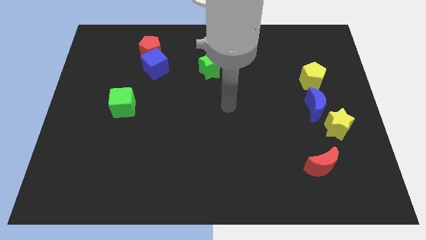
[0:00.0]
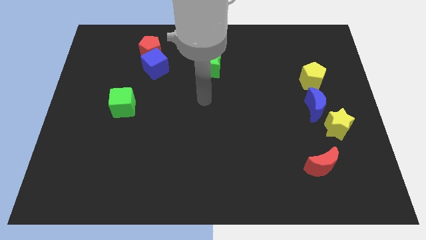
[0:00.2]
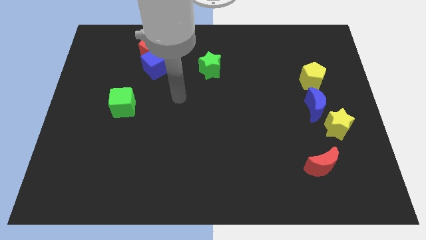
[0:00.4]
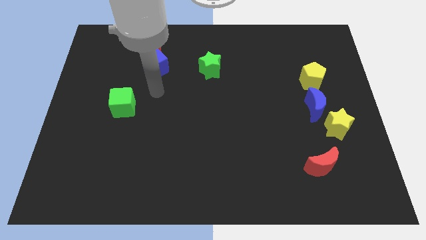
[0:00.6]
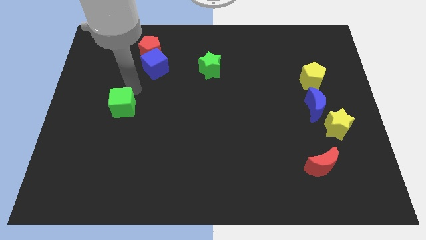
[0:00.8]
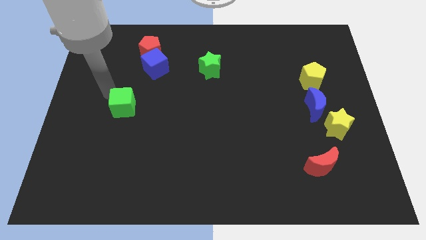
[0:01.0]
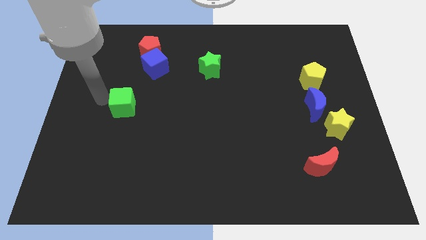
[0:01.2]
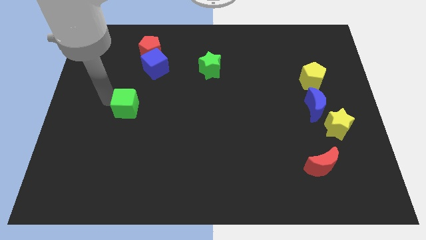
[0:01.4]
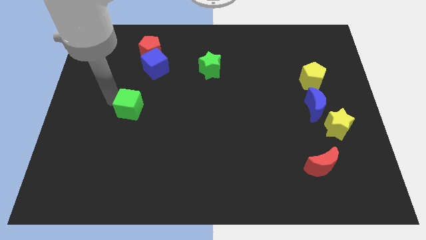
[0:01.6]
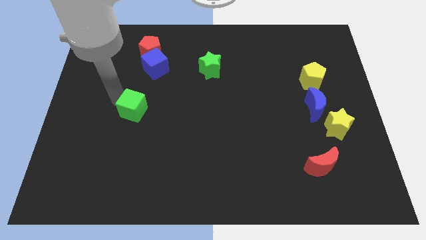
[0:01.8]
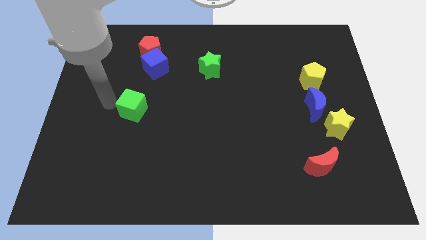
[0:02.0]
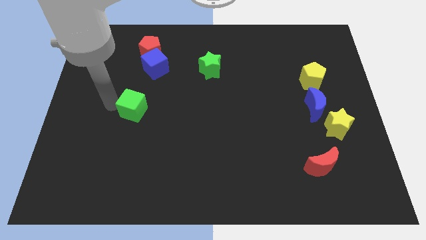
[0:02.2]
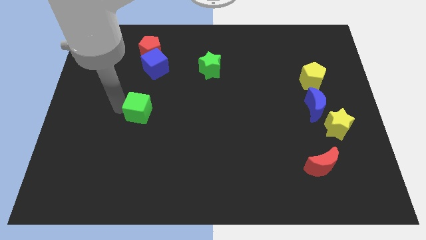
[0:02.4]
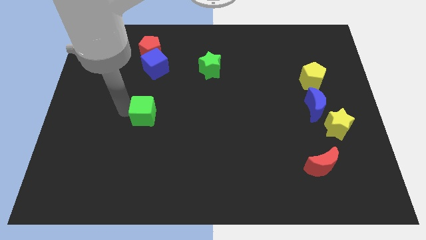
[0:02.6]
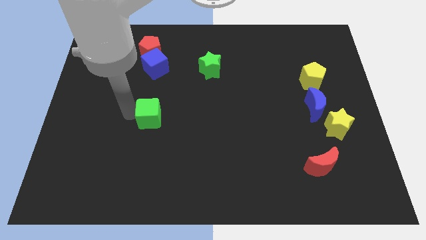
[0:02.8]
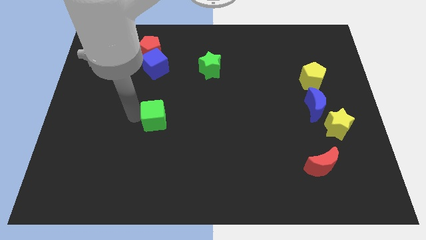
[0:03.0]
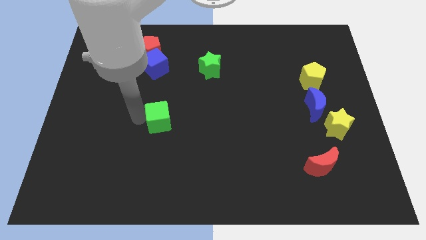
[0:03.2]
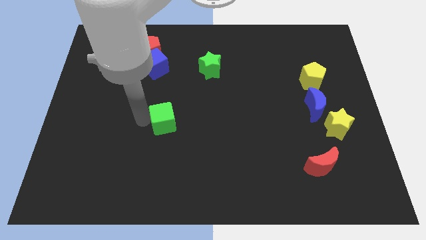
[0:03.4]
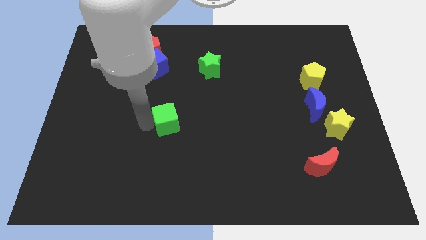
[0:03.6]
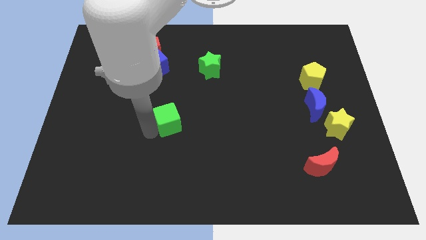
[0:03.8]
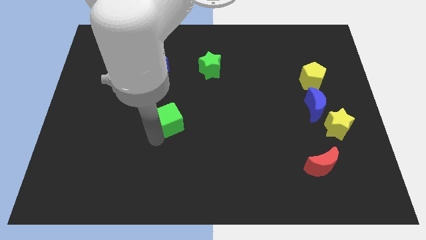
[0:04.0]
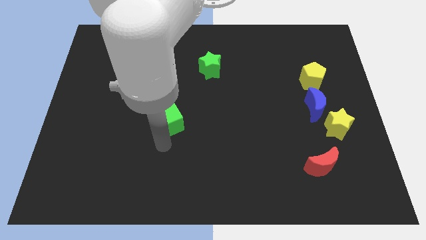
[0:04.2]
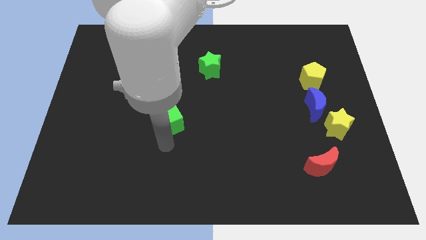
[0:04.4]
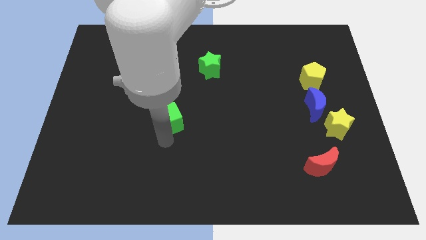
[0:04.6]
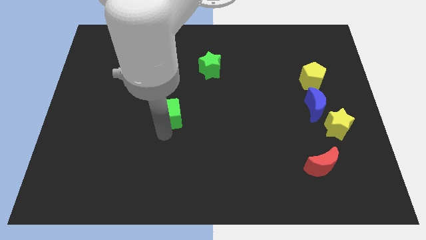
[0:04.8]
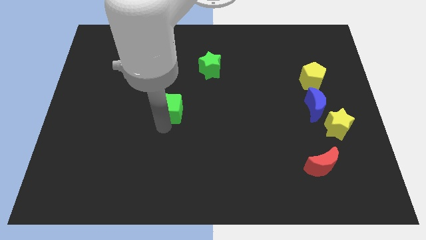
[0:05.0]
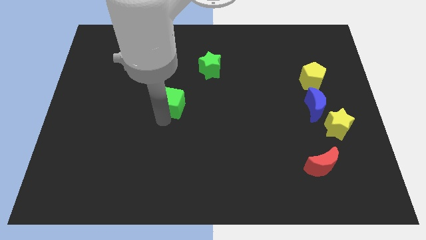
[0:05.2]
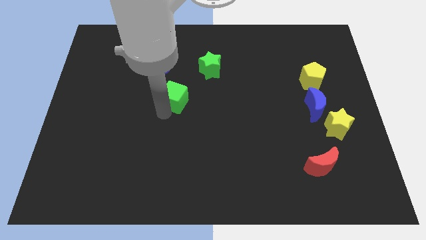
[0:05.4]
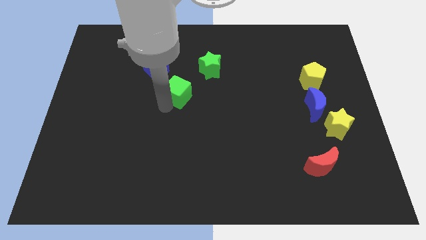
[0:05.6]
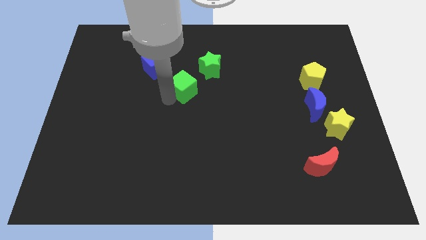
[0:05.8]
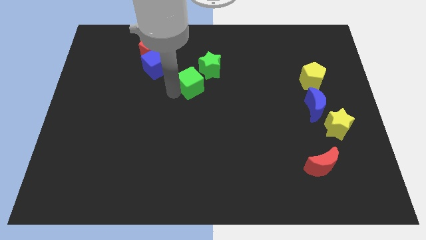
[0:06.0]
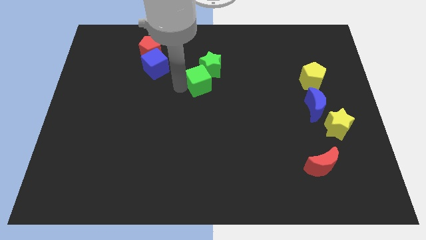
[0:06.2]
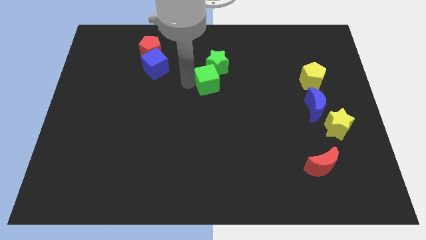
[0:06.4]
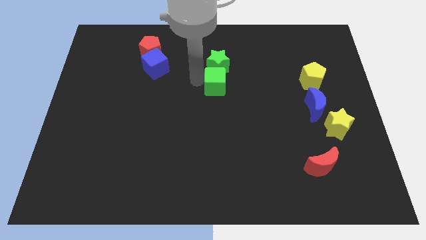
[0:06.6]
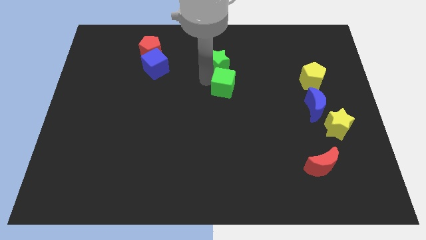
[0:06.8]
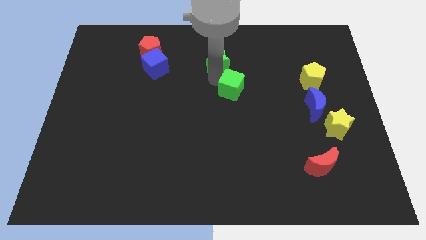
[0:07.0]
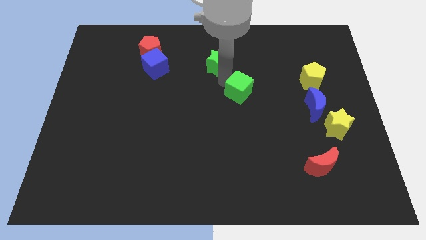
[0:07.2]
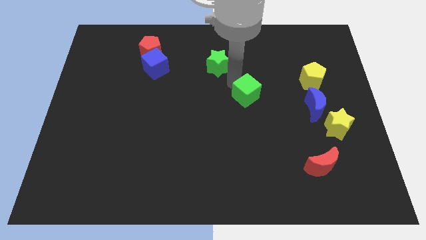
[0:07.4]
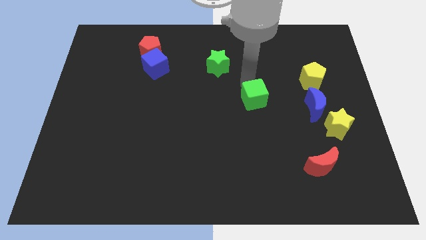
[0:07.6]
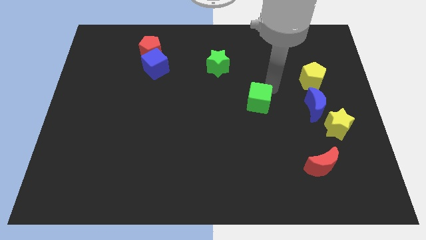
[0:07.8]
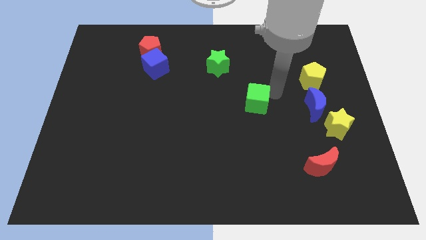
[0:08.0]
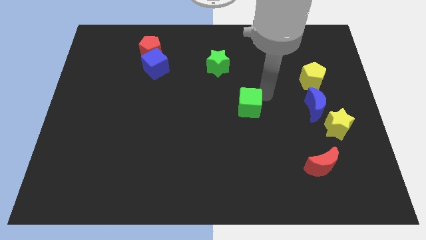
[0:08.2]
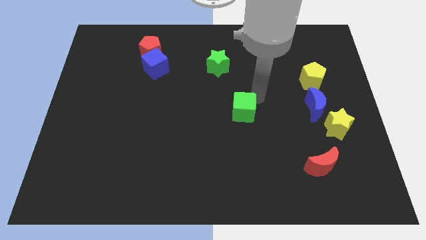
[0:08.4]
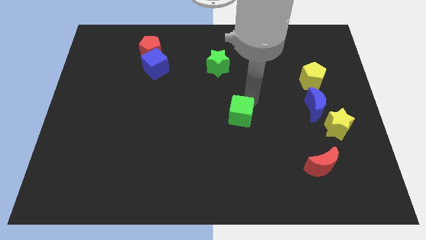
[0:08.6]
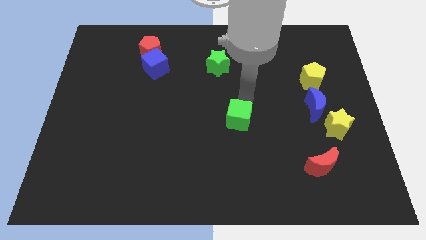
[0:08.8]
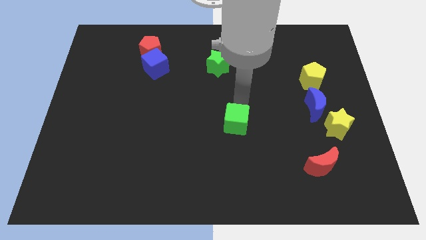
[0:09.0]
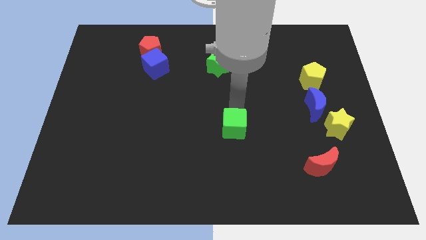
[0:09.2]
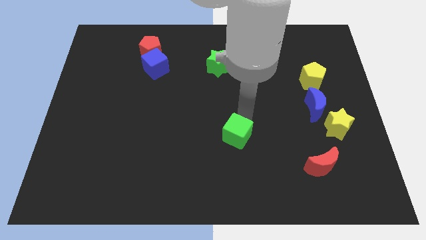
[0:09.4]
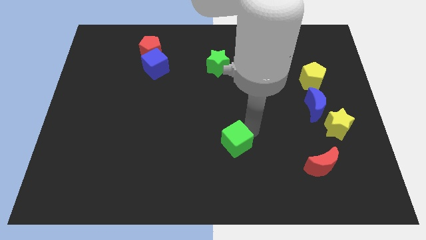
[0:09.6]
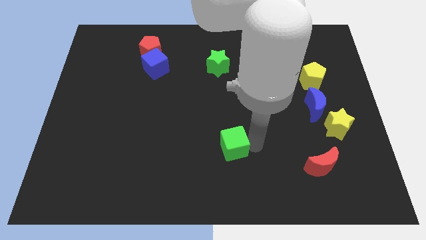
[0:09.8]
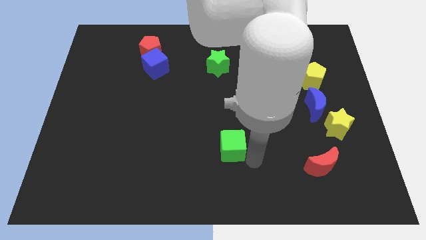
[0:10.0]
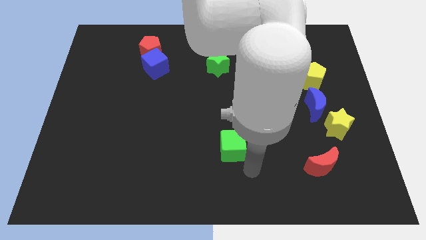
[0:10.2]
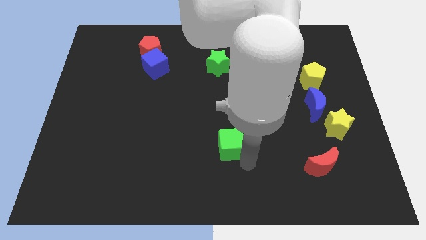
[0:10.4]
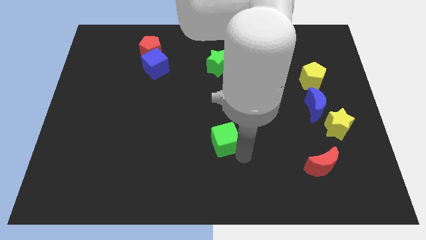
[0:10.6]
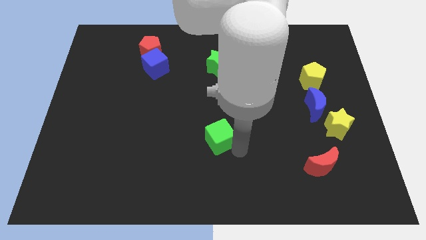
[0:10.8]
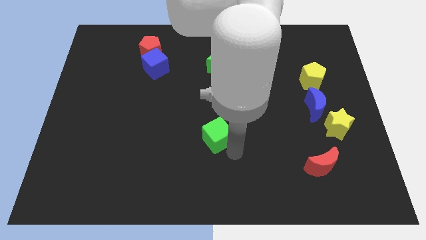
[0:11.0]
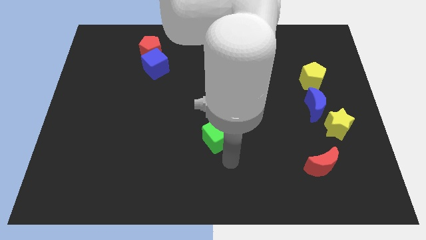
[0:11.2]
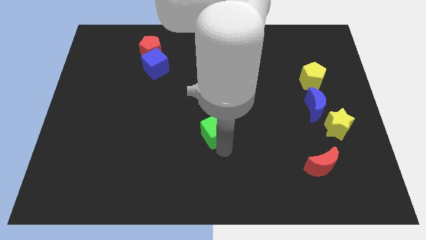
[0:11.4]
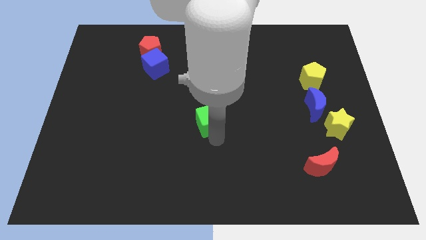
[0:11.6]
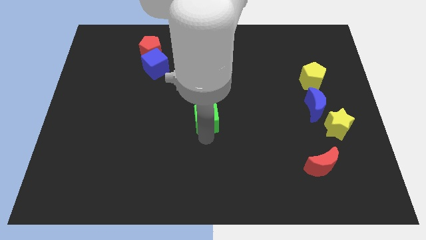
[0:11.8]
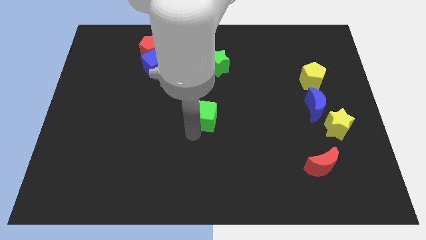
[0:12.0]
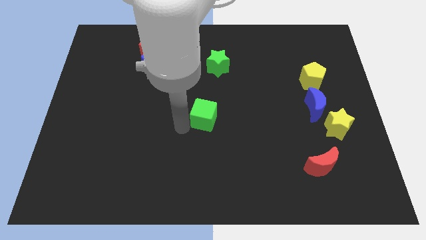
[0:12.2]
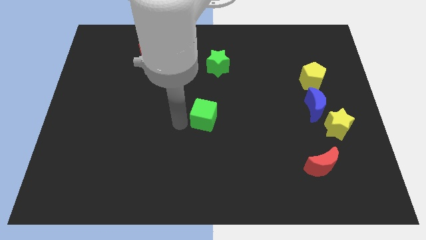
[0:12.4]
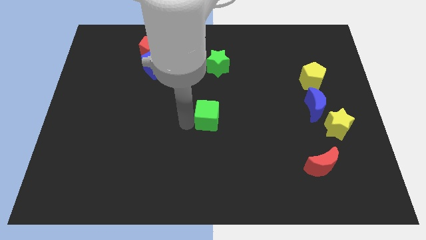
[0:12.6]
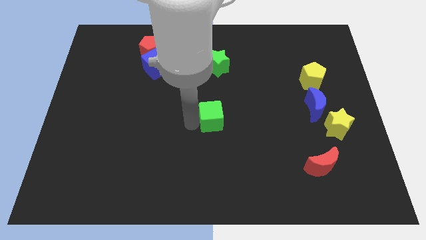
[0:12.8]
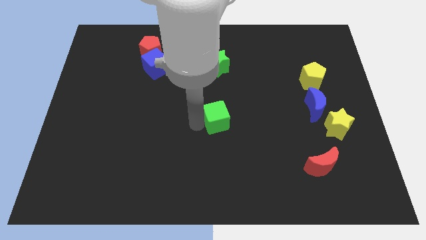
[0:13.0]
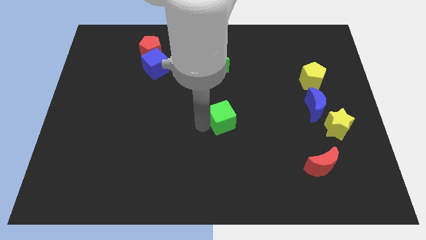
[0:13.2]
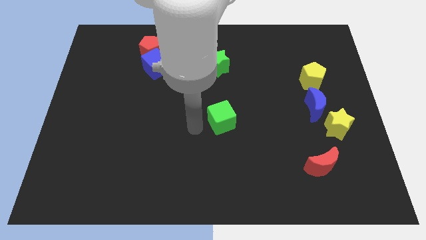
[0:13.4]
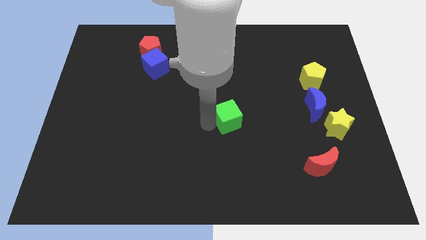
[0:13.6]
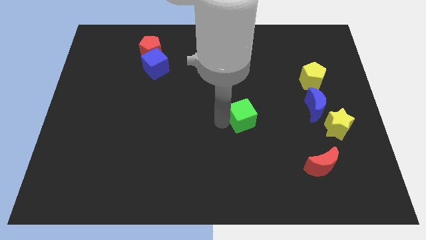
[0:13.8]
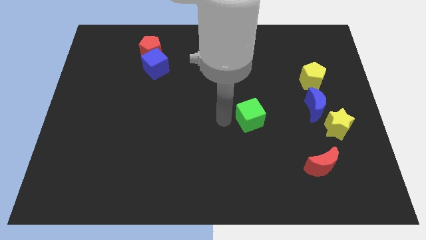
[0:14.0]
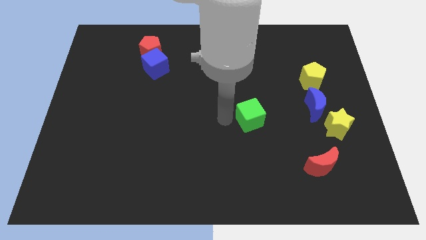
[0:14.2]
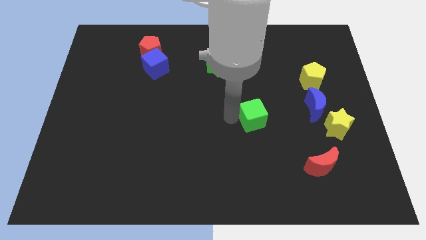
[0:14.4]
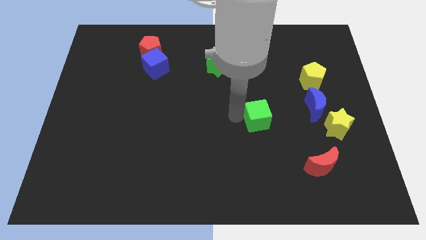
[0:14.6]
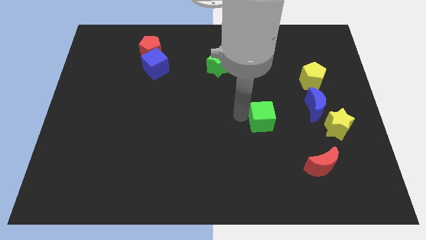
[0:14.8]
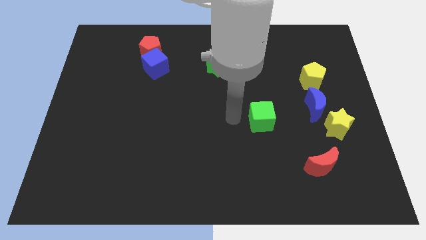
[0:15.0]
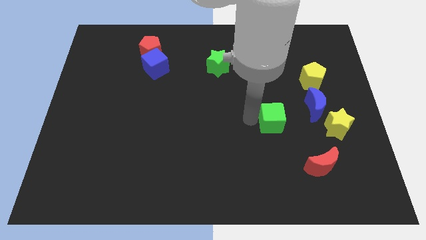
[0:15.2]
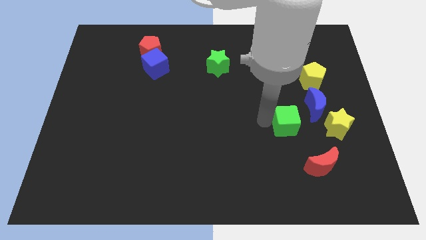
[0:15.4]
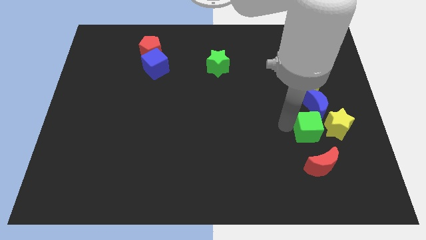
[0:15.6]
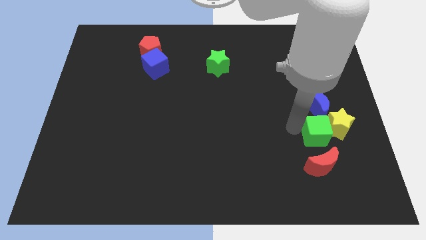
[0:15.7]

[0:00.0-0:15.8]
move the green cube next to the yellow star
